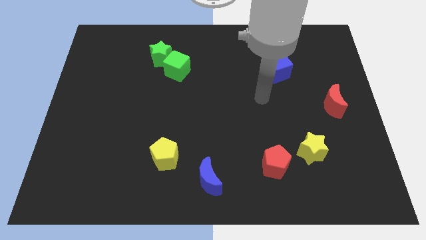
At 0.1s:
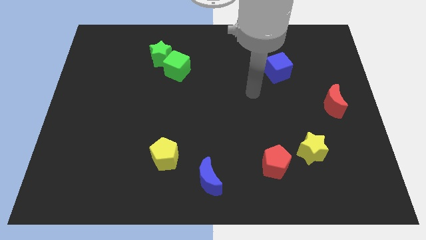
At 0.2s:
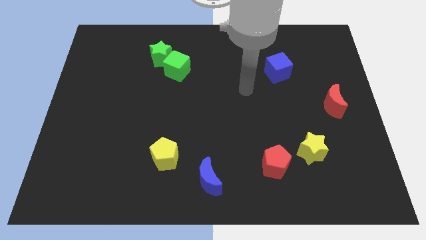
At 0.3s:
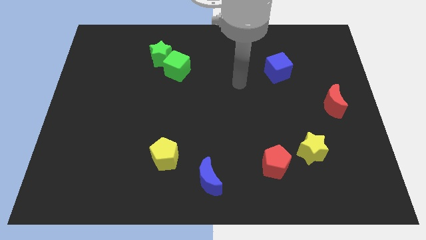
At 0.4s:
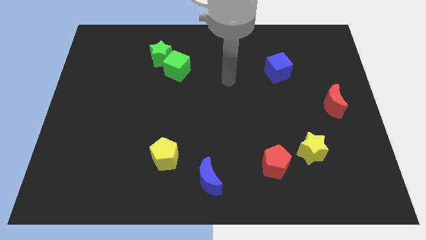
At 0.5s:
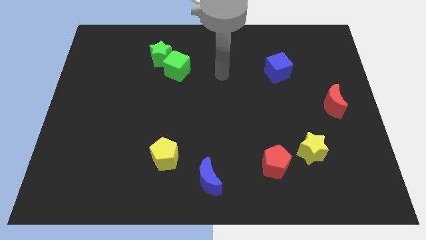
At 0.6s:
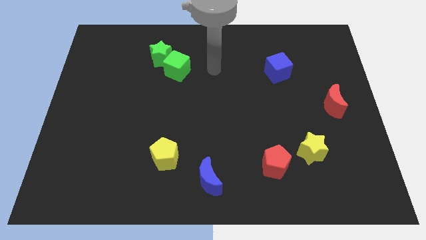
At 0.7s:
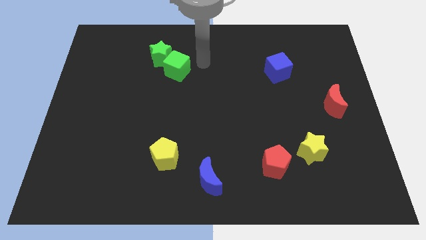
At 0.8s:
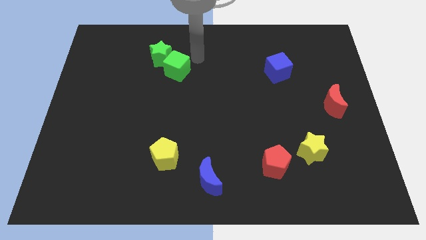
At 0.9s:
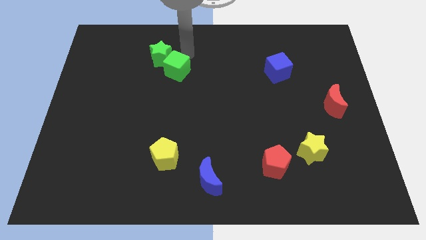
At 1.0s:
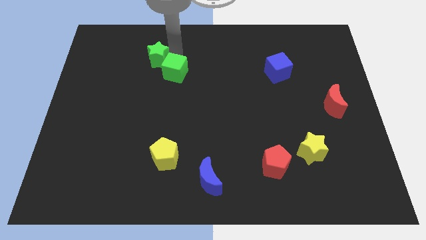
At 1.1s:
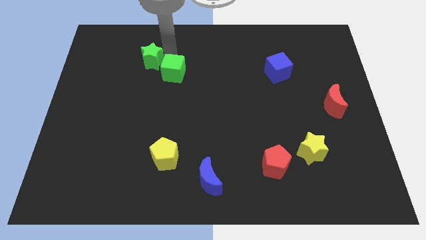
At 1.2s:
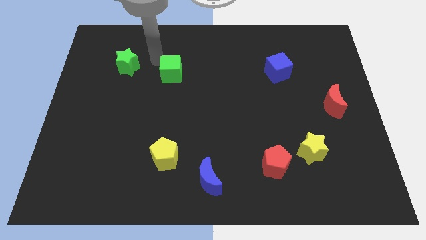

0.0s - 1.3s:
pull the green cube apart from the green star

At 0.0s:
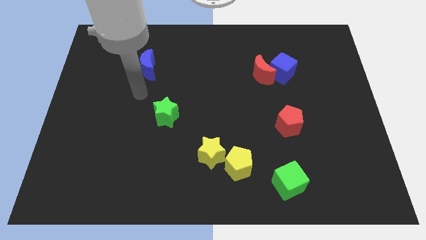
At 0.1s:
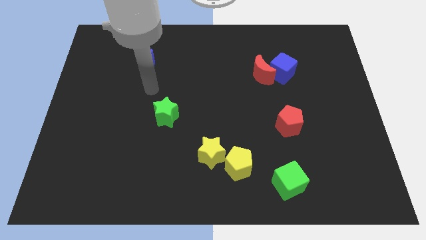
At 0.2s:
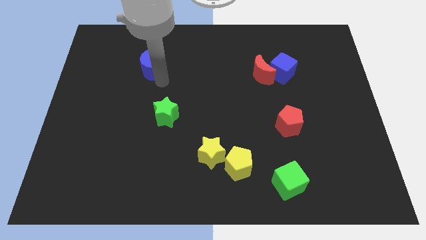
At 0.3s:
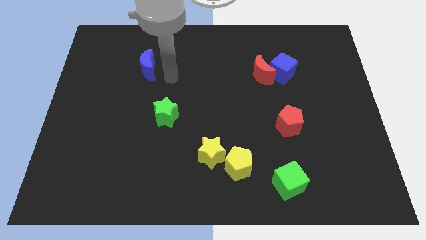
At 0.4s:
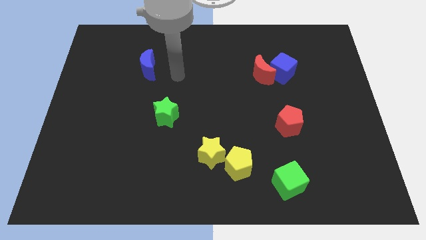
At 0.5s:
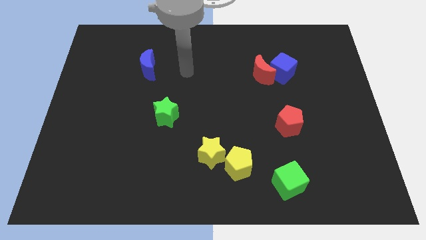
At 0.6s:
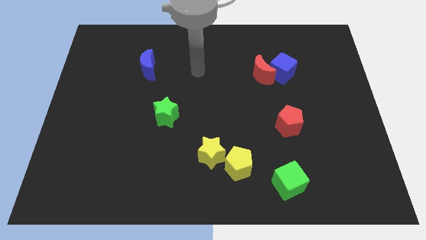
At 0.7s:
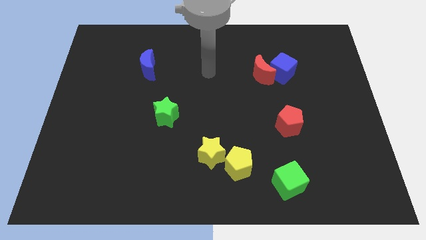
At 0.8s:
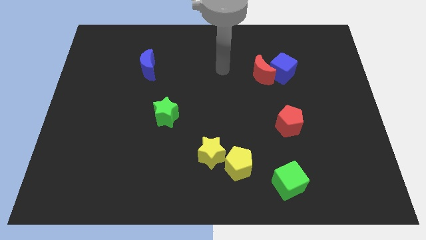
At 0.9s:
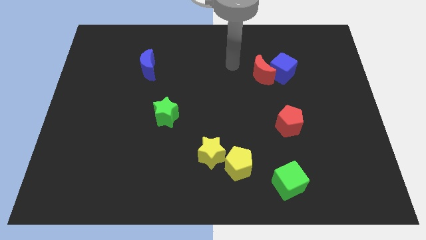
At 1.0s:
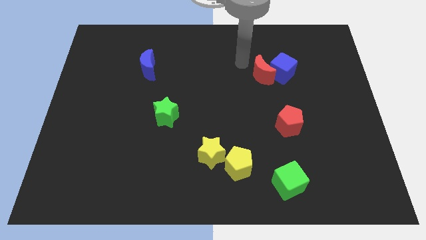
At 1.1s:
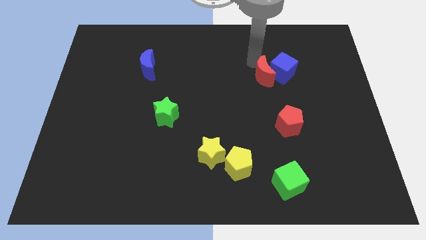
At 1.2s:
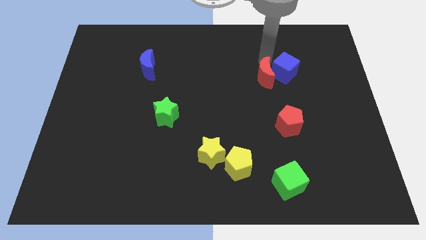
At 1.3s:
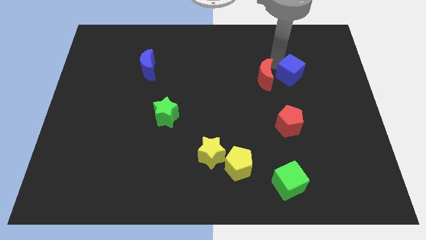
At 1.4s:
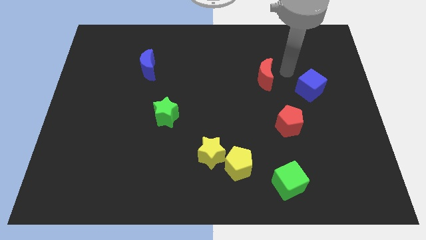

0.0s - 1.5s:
separate the red moon from the blue cube

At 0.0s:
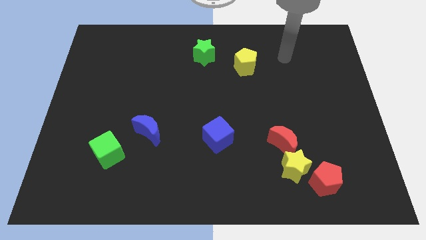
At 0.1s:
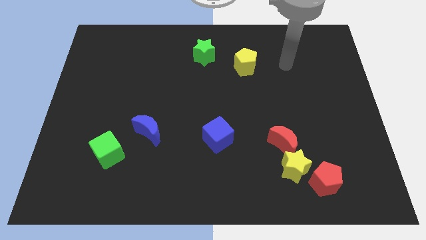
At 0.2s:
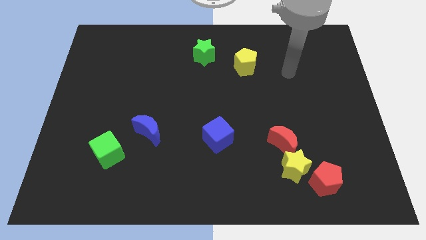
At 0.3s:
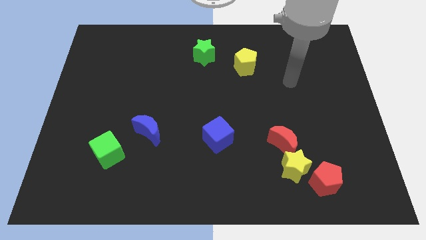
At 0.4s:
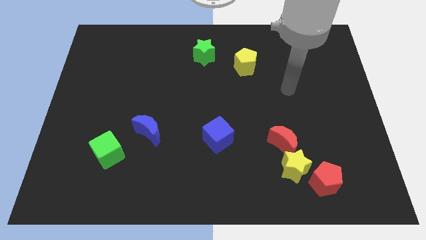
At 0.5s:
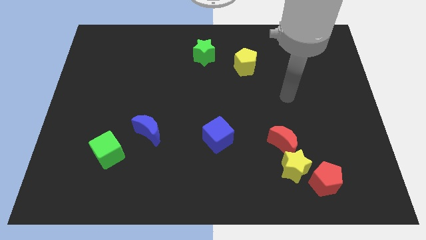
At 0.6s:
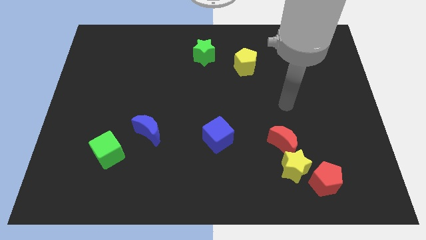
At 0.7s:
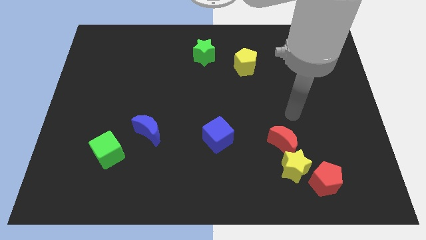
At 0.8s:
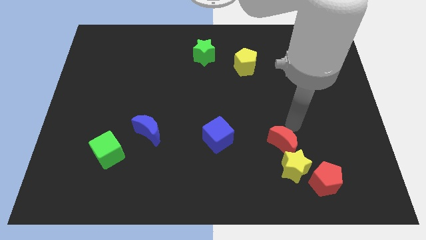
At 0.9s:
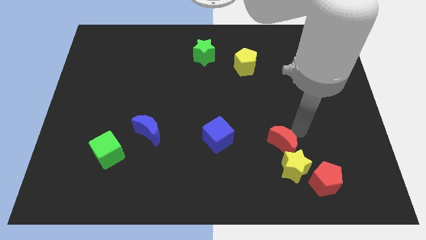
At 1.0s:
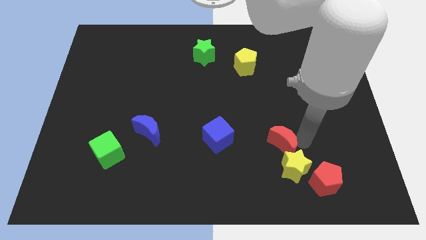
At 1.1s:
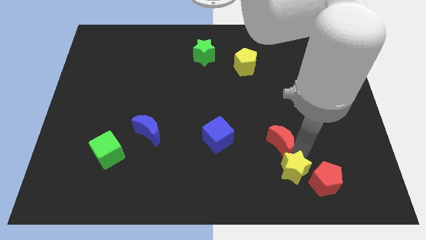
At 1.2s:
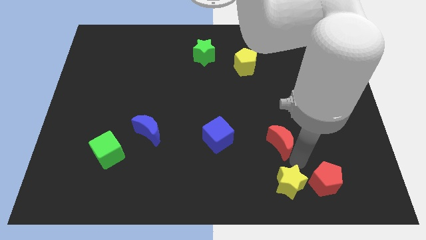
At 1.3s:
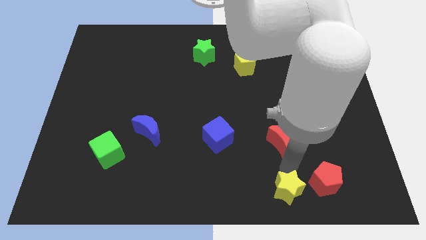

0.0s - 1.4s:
move the red moon away from the yellow star

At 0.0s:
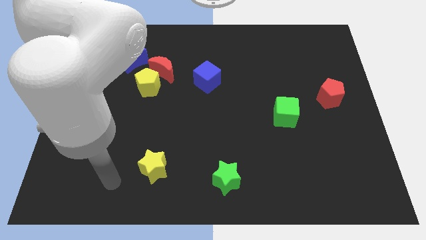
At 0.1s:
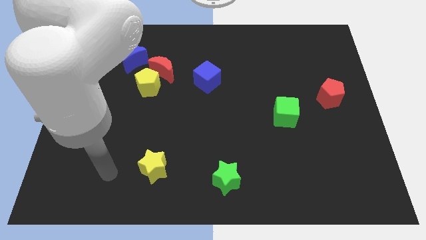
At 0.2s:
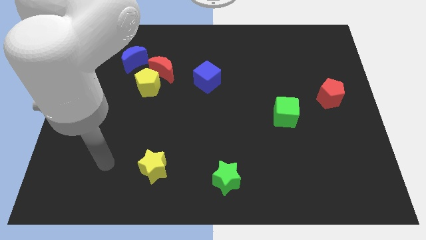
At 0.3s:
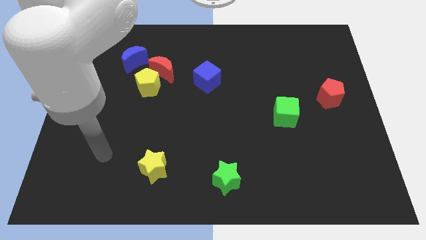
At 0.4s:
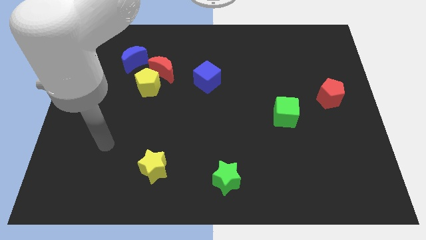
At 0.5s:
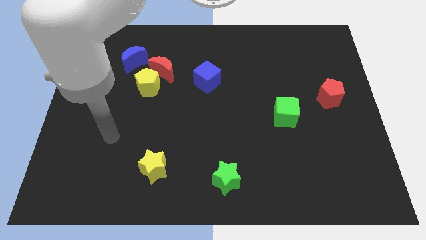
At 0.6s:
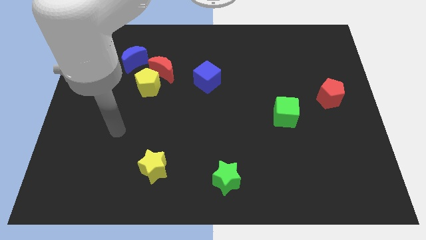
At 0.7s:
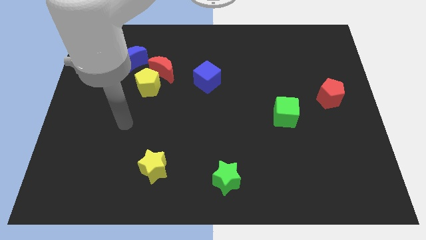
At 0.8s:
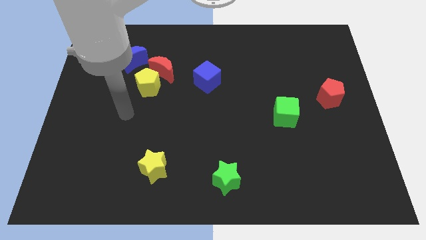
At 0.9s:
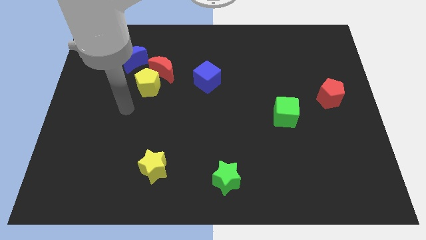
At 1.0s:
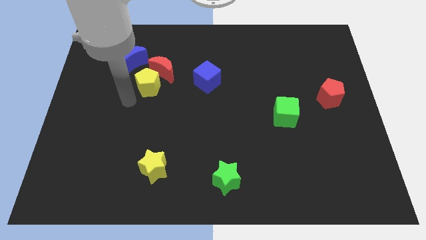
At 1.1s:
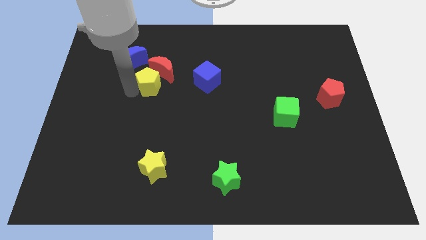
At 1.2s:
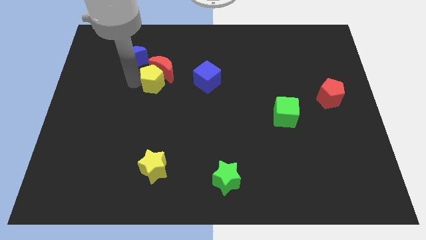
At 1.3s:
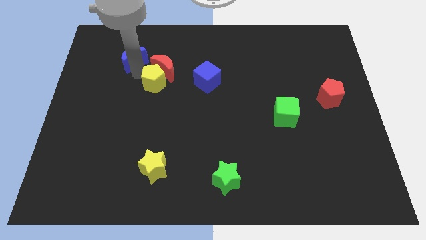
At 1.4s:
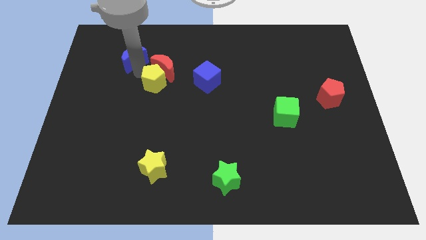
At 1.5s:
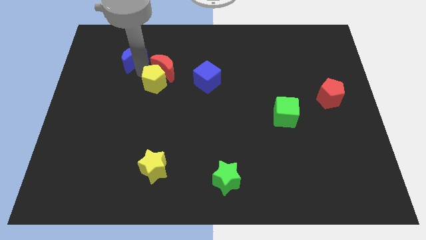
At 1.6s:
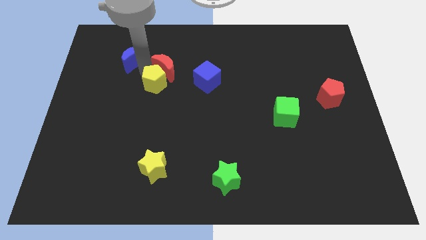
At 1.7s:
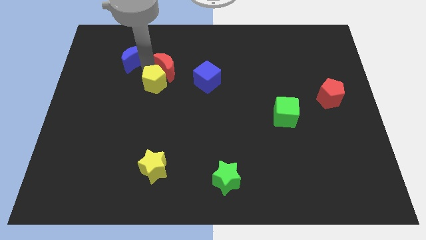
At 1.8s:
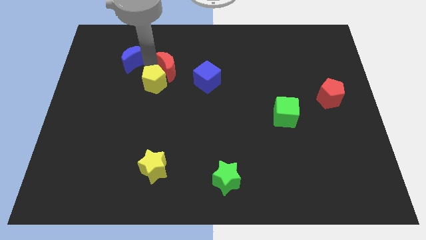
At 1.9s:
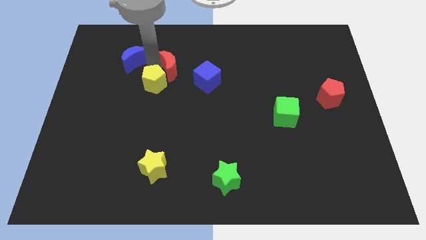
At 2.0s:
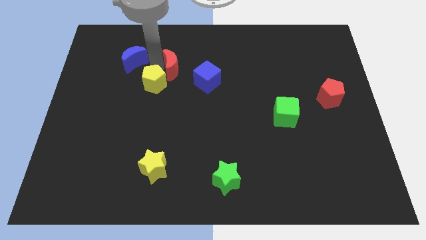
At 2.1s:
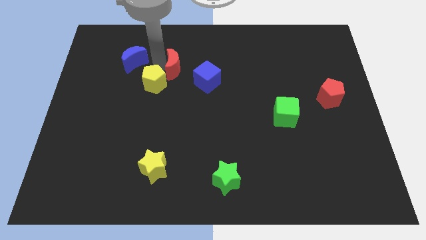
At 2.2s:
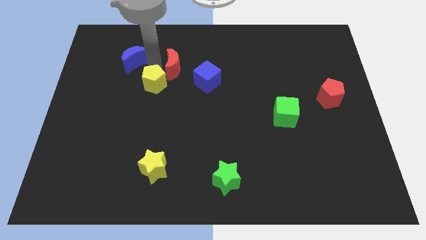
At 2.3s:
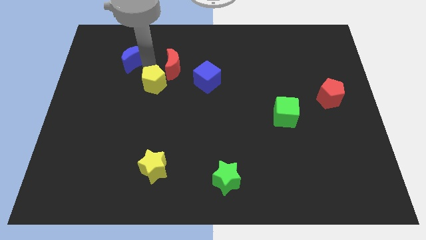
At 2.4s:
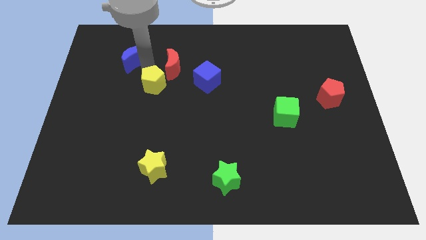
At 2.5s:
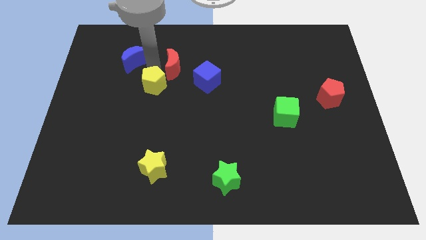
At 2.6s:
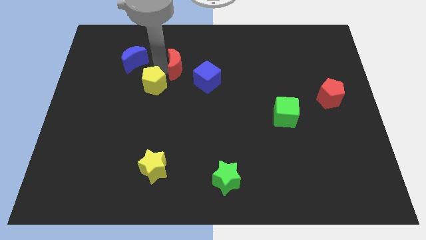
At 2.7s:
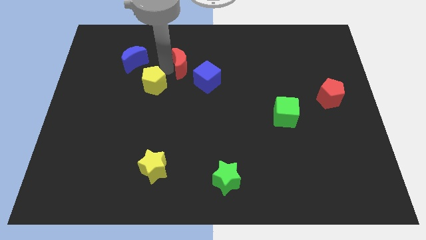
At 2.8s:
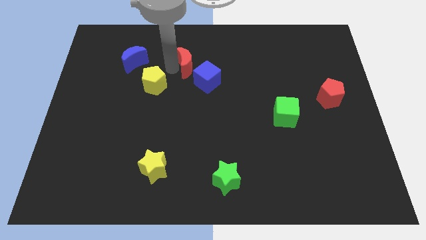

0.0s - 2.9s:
move the red moon away from the yellow pentagon and blue moon

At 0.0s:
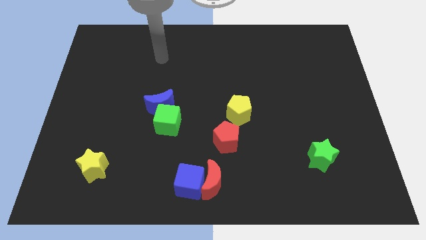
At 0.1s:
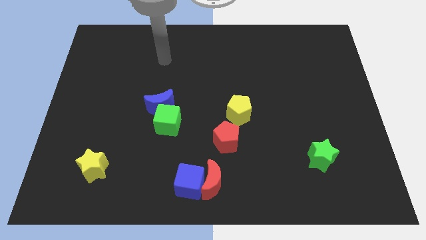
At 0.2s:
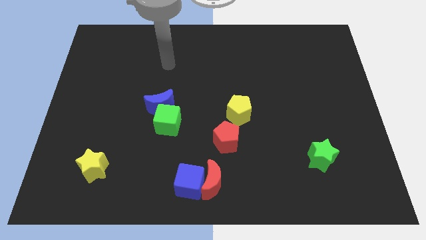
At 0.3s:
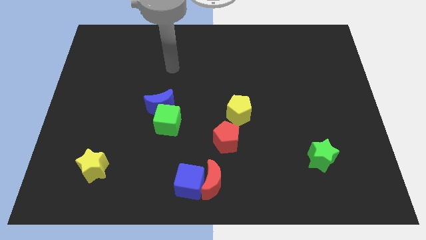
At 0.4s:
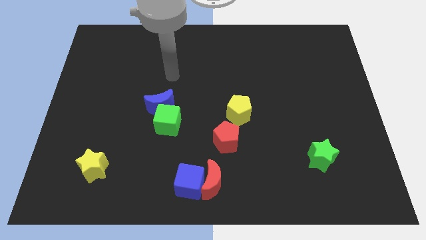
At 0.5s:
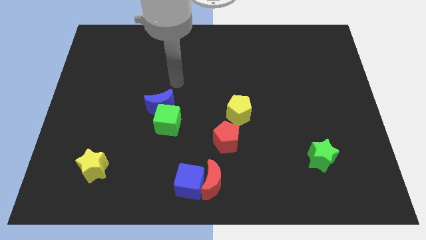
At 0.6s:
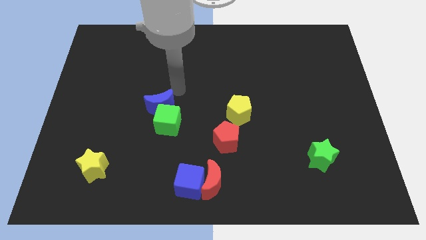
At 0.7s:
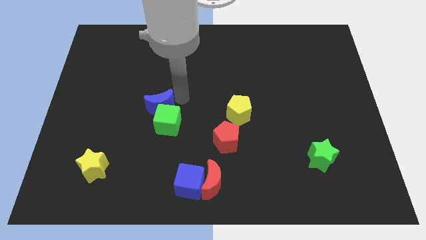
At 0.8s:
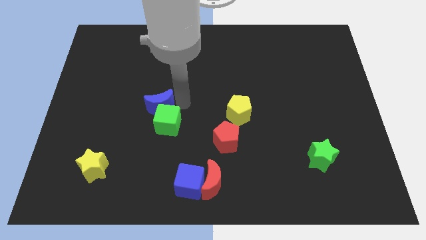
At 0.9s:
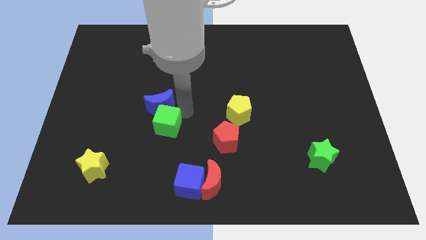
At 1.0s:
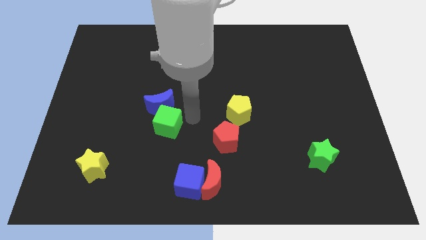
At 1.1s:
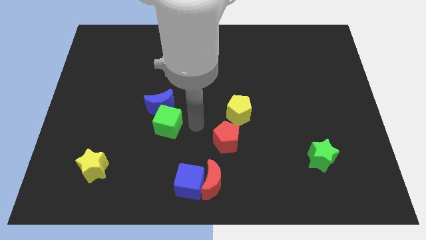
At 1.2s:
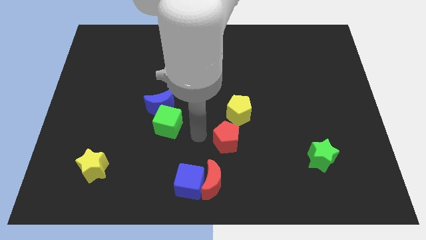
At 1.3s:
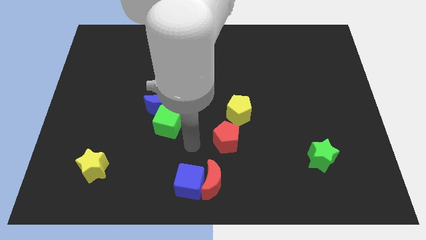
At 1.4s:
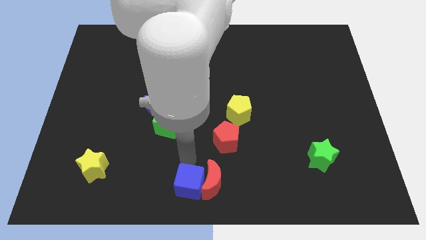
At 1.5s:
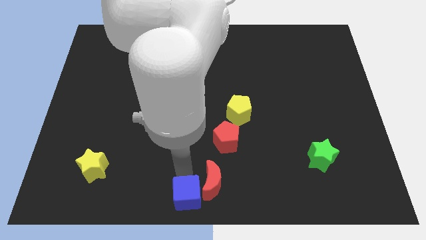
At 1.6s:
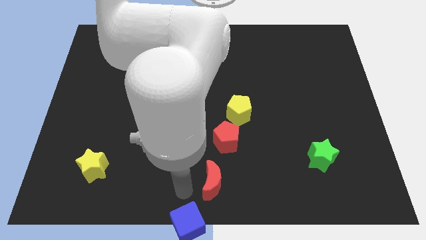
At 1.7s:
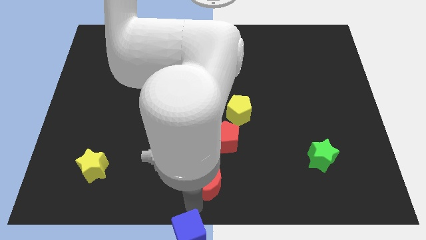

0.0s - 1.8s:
pull the red moon apart from the blue cube

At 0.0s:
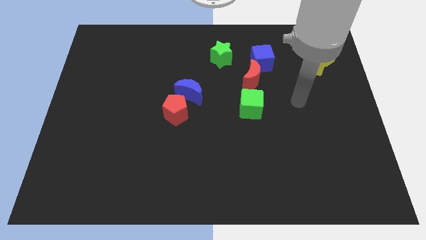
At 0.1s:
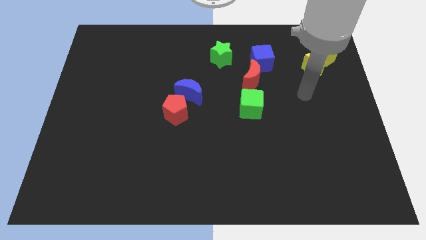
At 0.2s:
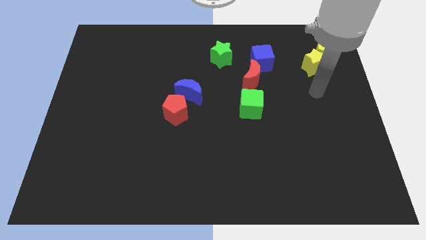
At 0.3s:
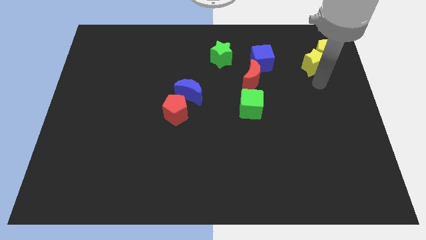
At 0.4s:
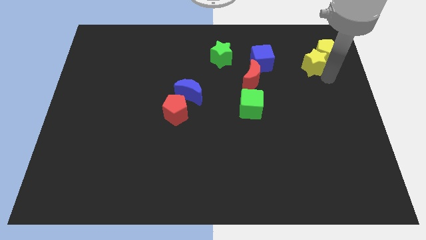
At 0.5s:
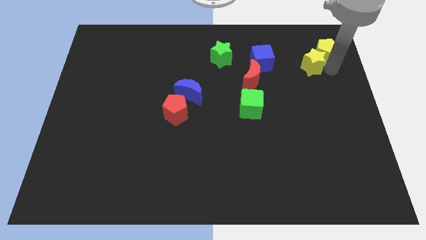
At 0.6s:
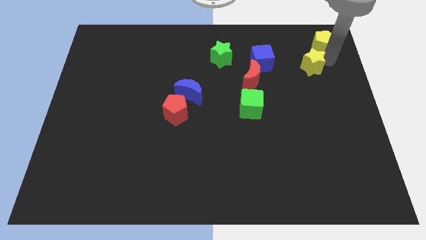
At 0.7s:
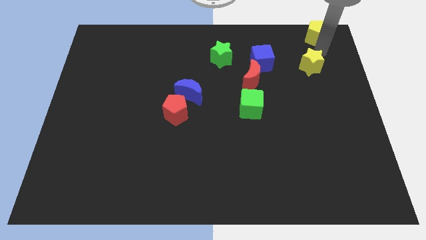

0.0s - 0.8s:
separate the yellow star from the yellow pentagon
